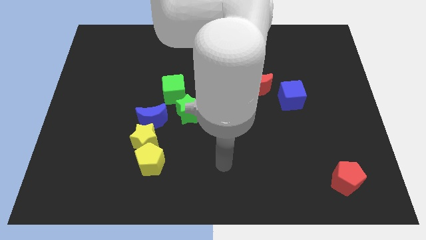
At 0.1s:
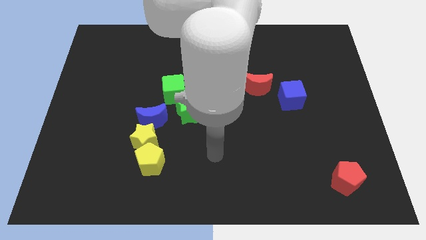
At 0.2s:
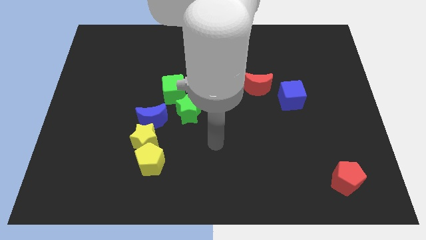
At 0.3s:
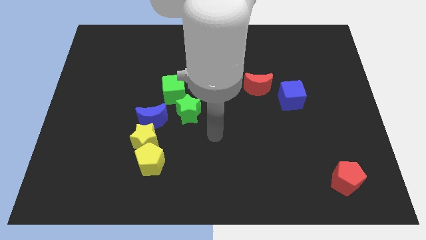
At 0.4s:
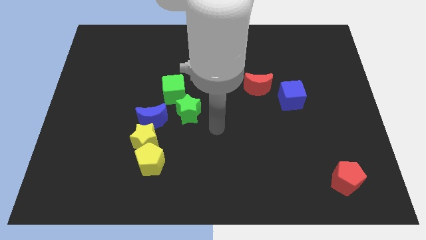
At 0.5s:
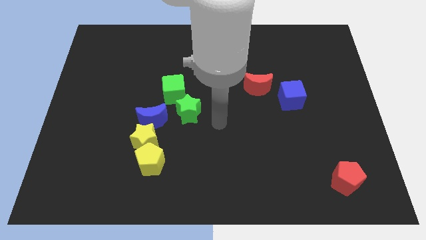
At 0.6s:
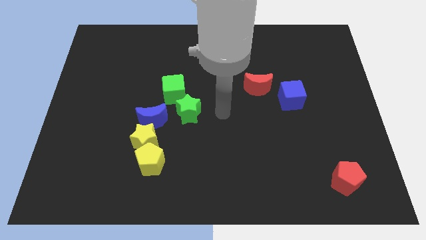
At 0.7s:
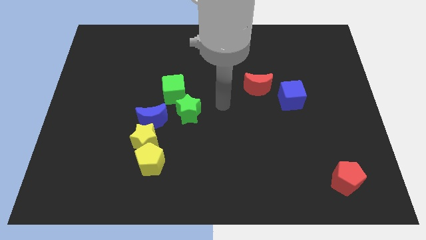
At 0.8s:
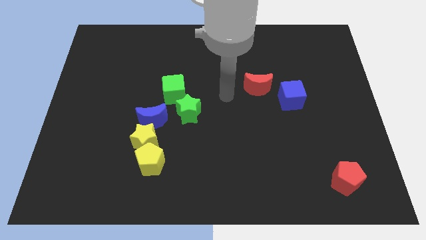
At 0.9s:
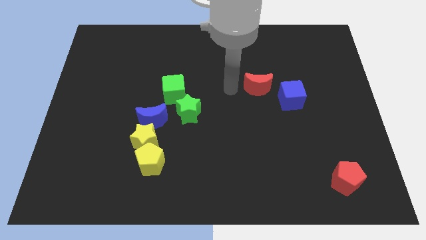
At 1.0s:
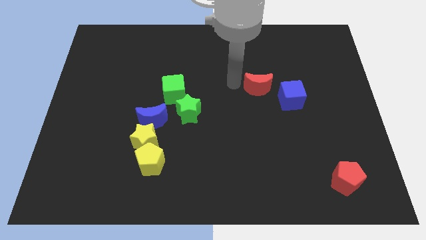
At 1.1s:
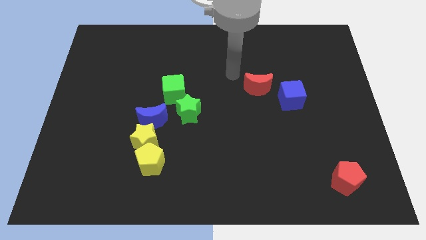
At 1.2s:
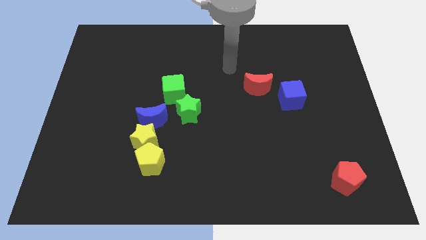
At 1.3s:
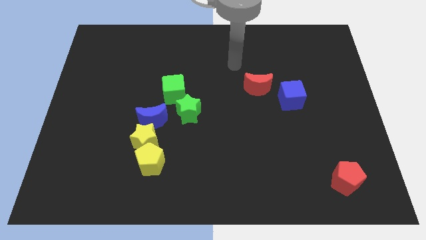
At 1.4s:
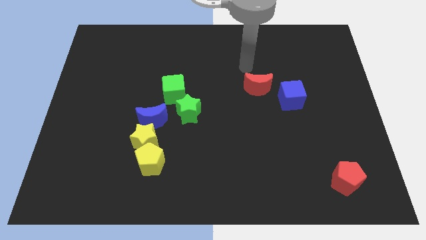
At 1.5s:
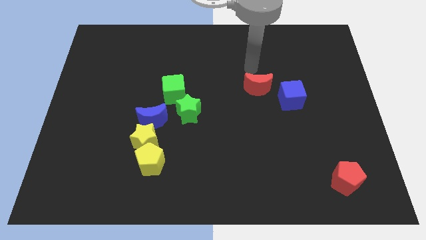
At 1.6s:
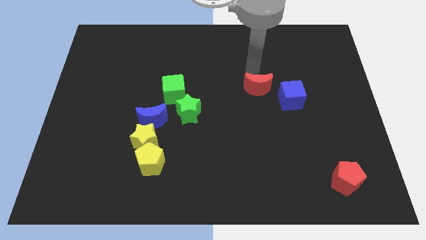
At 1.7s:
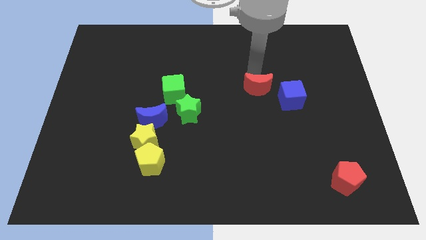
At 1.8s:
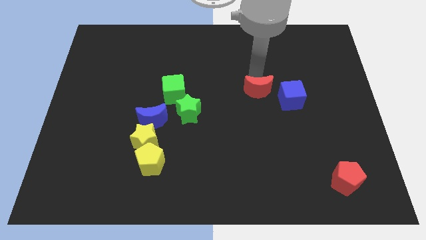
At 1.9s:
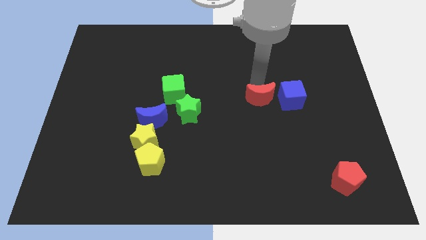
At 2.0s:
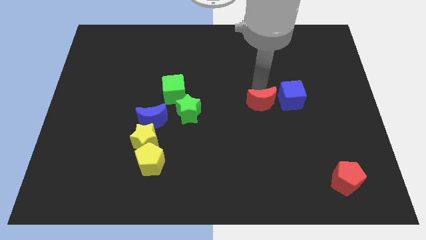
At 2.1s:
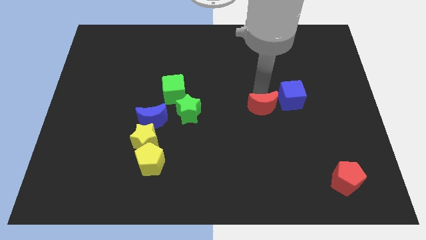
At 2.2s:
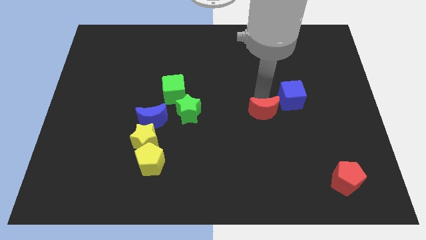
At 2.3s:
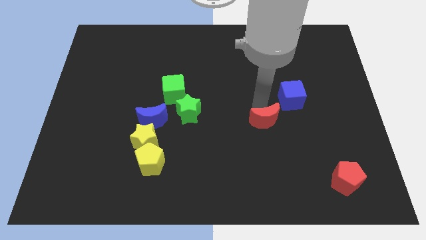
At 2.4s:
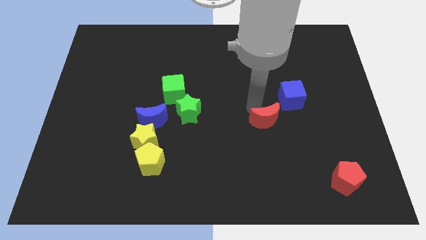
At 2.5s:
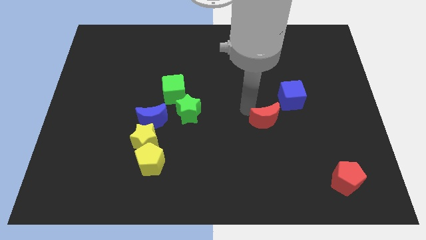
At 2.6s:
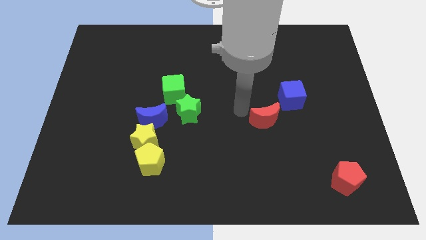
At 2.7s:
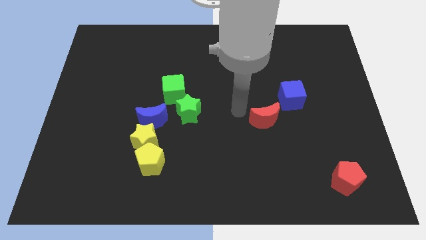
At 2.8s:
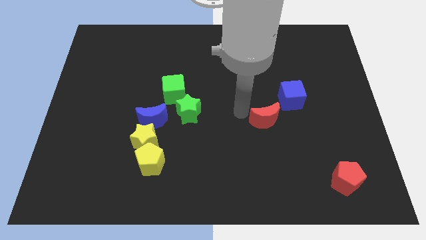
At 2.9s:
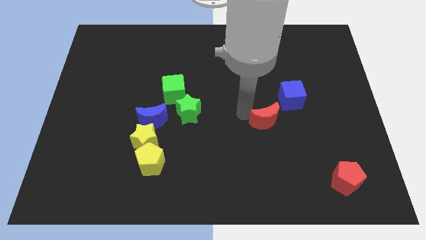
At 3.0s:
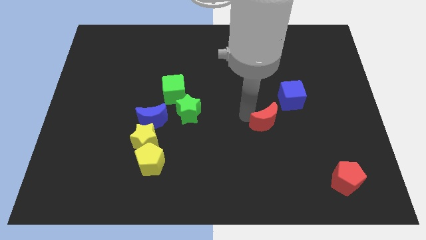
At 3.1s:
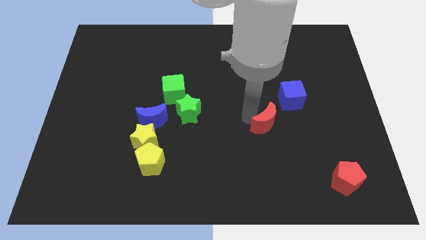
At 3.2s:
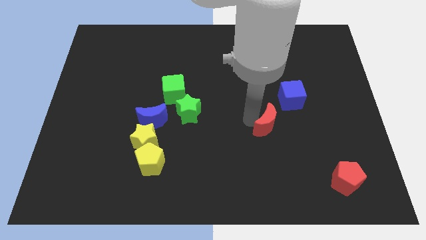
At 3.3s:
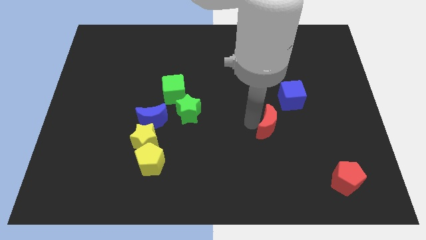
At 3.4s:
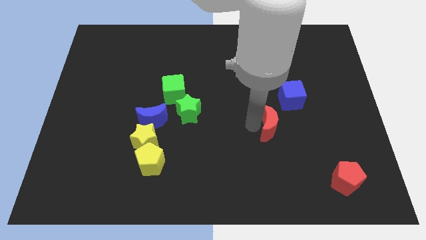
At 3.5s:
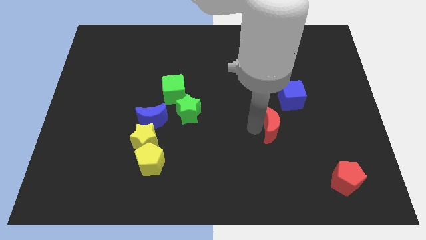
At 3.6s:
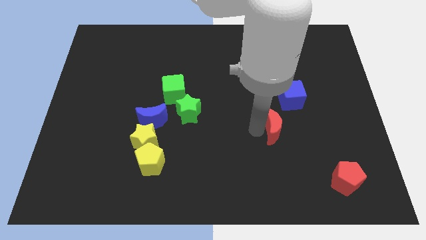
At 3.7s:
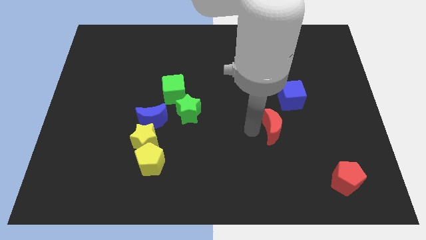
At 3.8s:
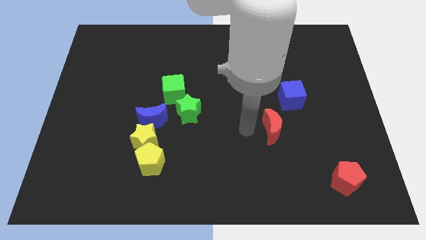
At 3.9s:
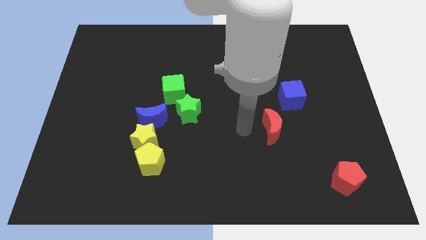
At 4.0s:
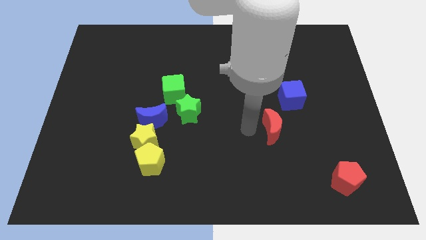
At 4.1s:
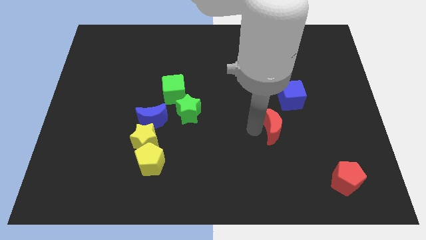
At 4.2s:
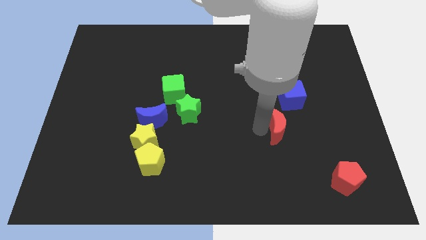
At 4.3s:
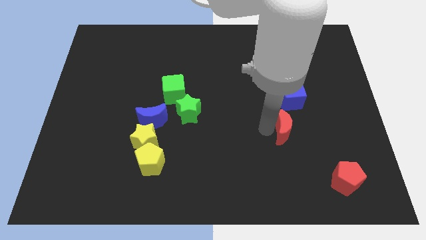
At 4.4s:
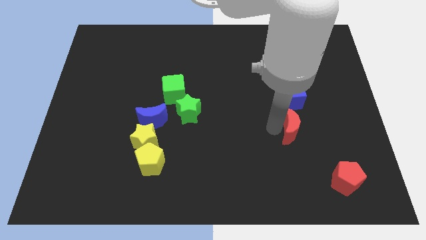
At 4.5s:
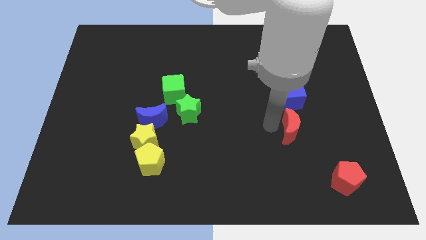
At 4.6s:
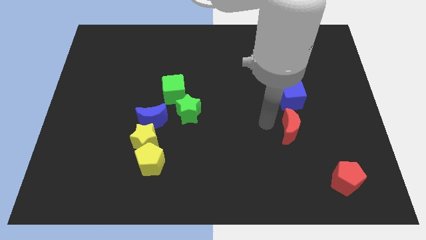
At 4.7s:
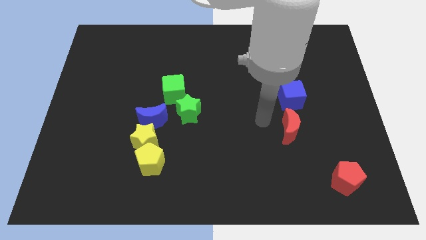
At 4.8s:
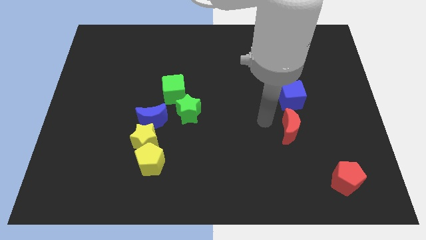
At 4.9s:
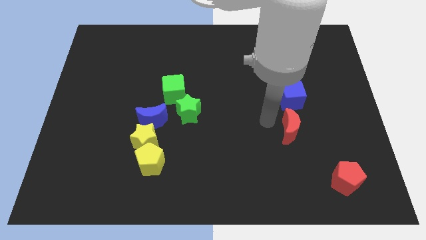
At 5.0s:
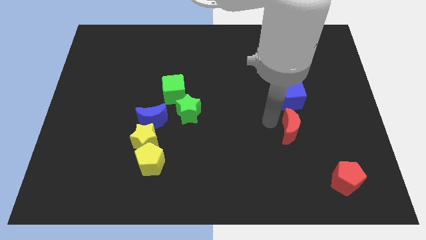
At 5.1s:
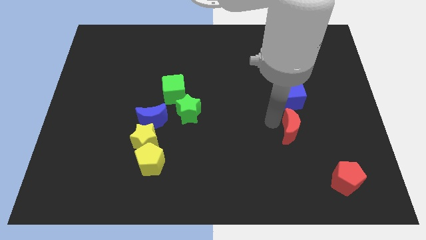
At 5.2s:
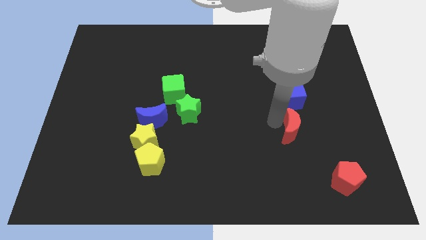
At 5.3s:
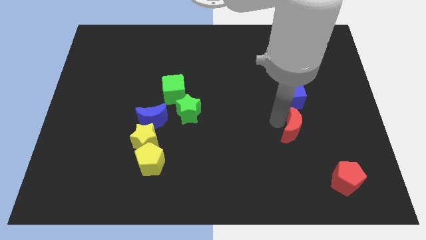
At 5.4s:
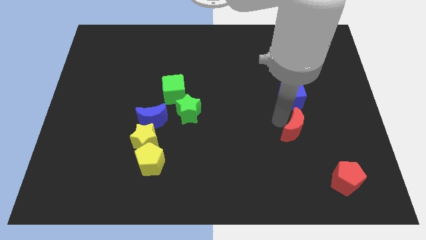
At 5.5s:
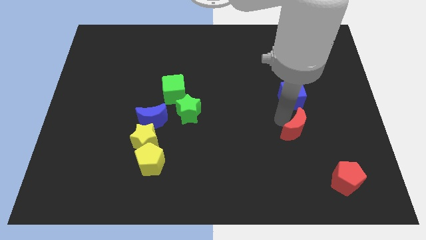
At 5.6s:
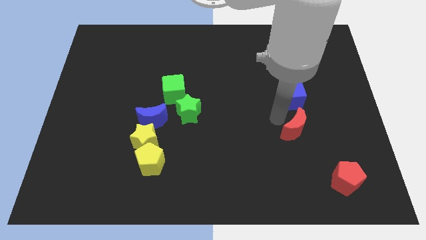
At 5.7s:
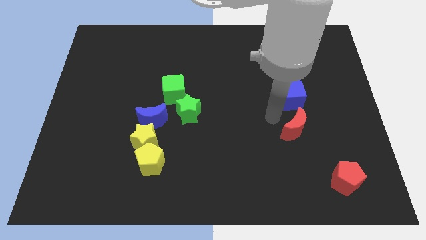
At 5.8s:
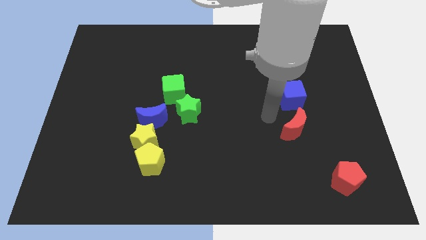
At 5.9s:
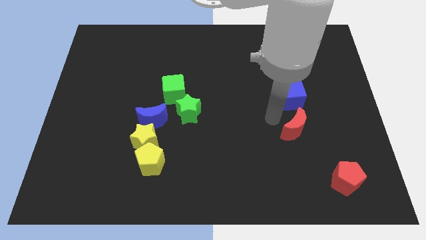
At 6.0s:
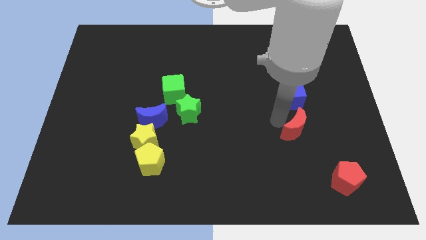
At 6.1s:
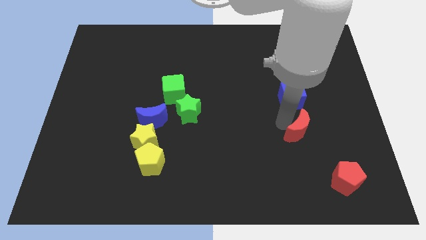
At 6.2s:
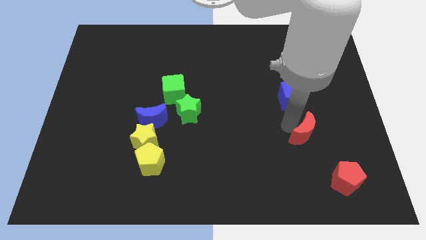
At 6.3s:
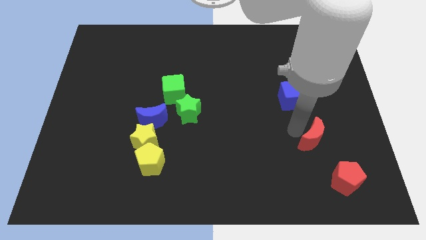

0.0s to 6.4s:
move the red moon to the top side of the red pentagon

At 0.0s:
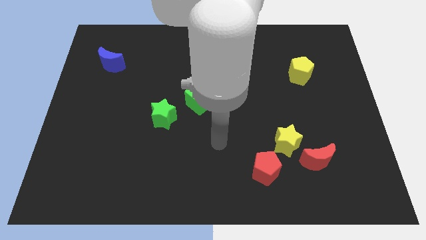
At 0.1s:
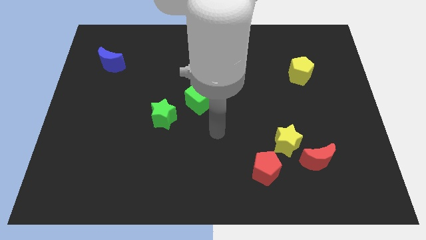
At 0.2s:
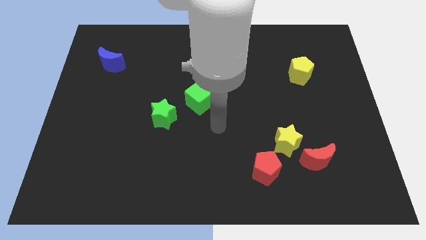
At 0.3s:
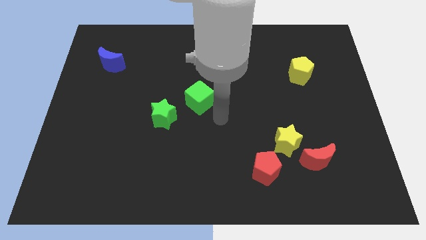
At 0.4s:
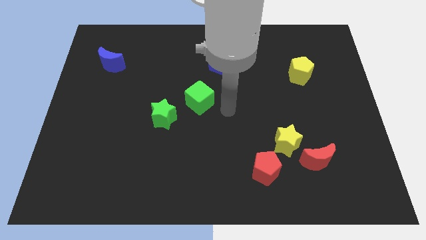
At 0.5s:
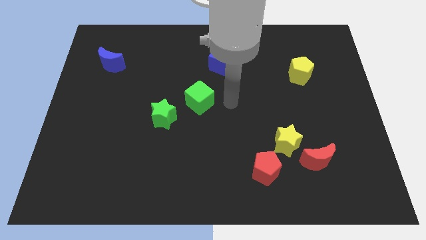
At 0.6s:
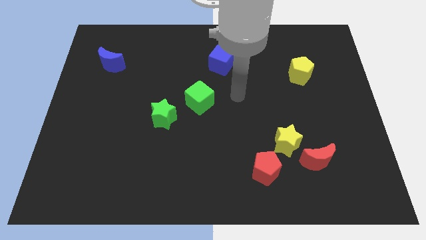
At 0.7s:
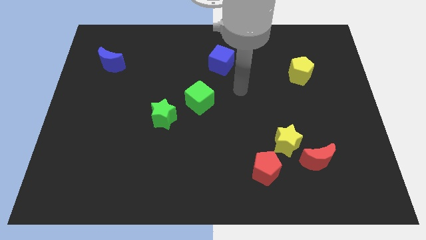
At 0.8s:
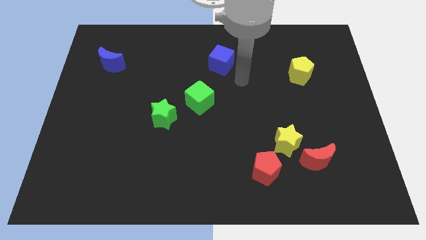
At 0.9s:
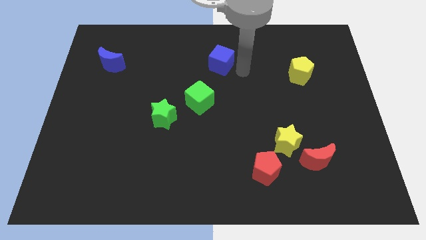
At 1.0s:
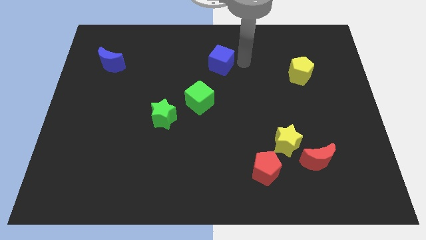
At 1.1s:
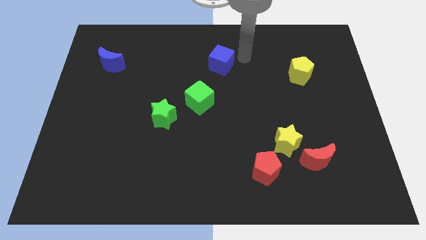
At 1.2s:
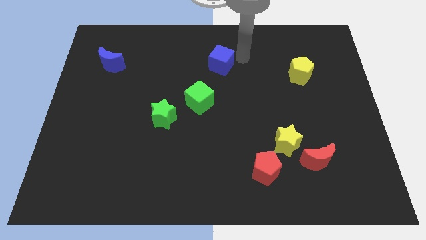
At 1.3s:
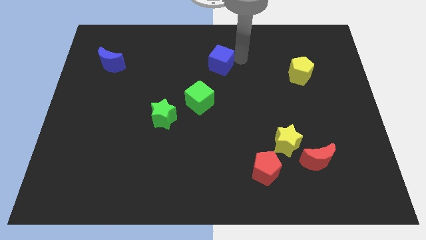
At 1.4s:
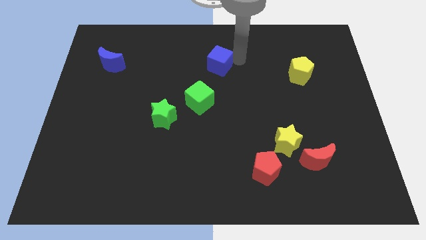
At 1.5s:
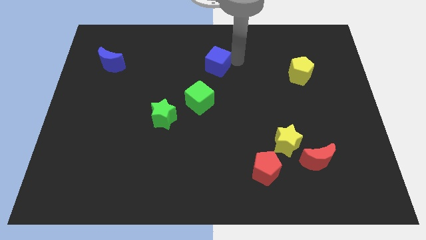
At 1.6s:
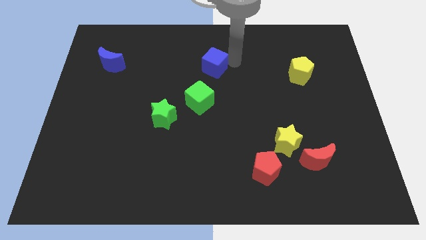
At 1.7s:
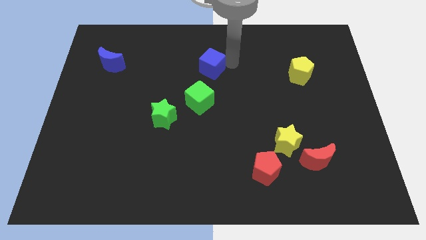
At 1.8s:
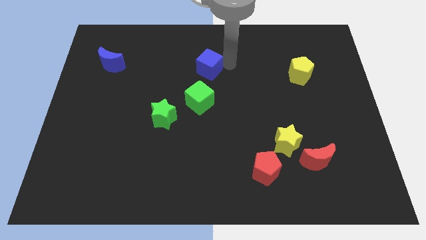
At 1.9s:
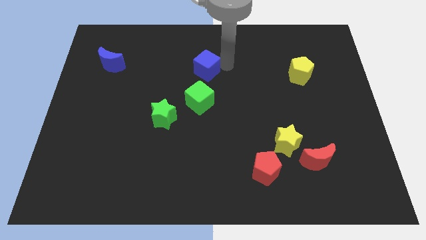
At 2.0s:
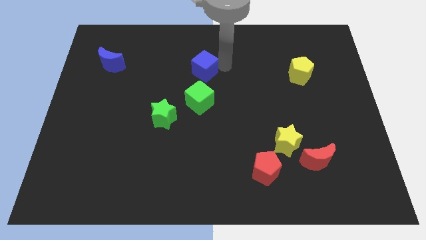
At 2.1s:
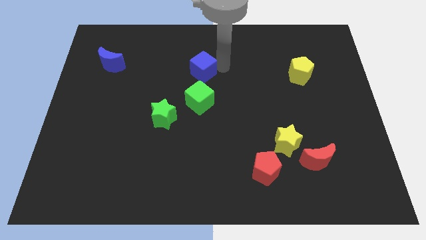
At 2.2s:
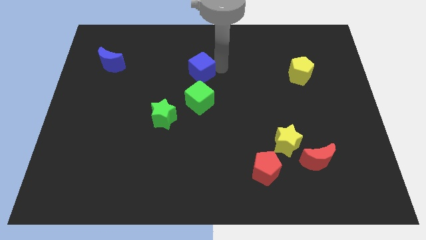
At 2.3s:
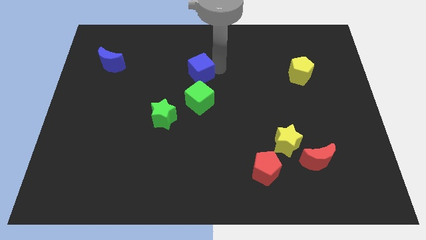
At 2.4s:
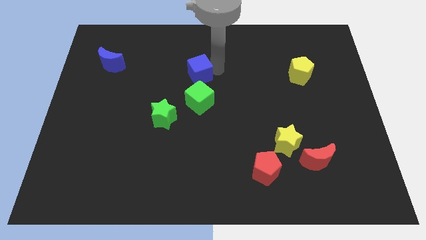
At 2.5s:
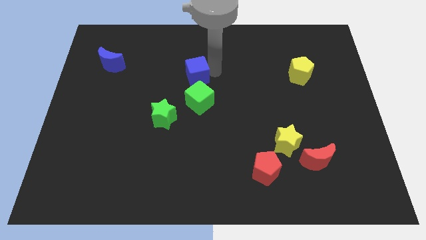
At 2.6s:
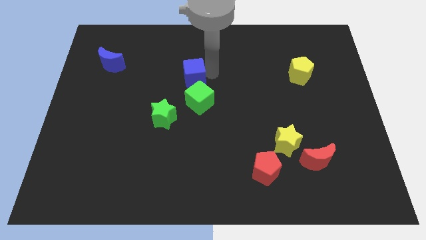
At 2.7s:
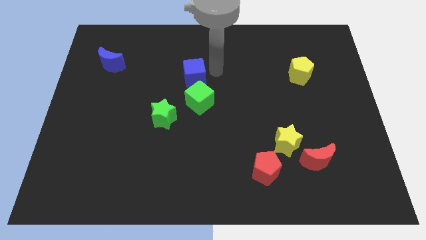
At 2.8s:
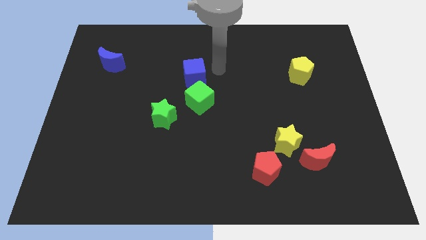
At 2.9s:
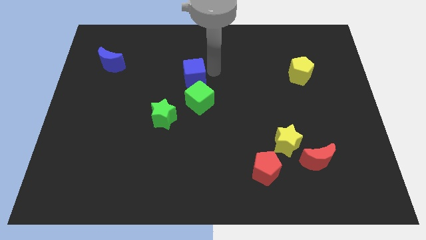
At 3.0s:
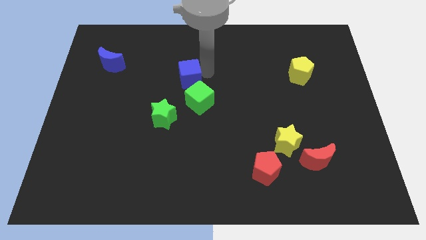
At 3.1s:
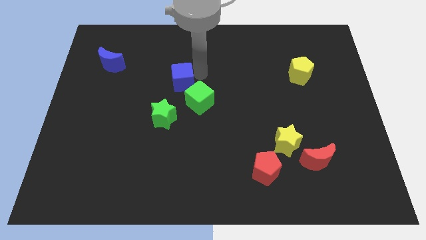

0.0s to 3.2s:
slide the blue cube to the top side of the green star
